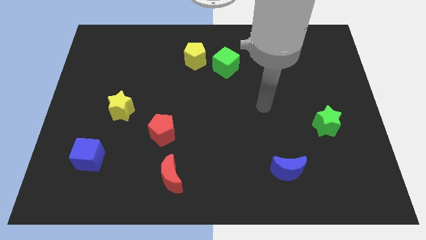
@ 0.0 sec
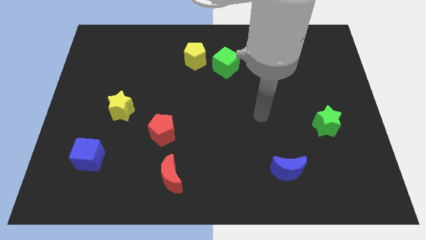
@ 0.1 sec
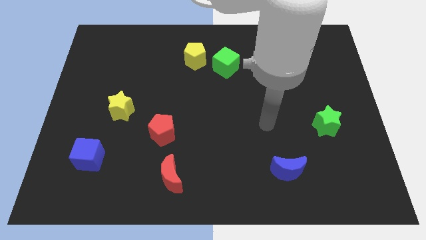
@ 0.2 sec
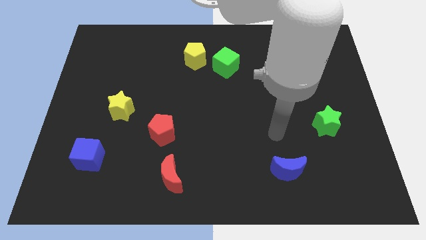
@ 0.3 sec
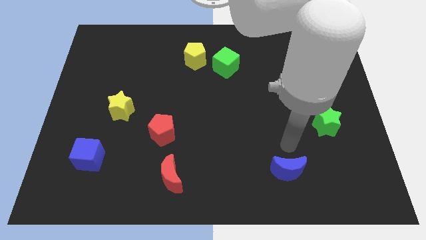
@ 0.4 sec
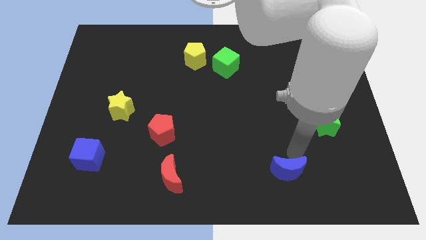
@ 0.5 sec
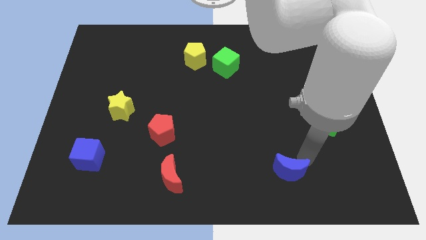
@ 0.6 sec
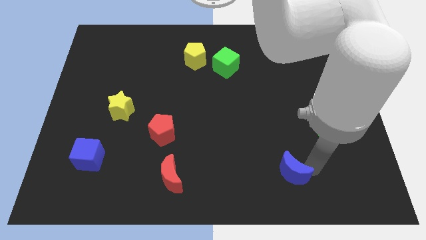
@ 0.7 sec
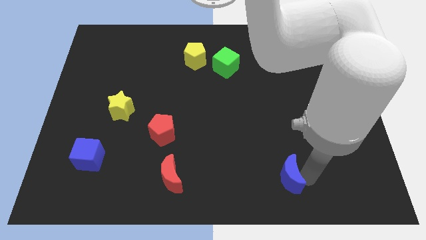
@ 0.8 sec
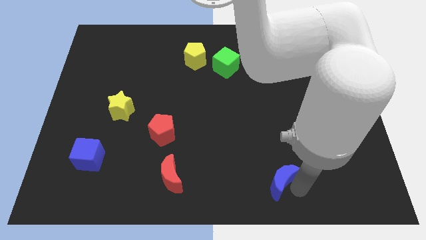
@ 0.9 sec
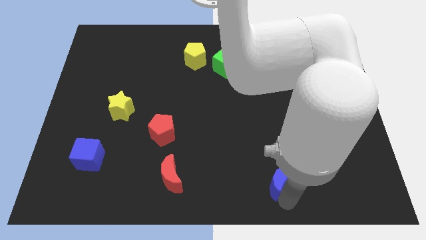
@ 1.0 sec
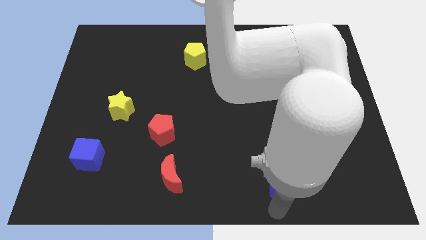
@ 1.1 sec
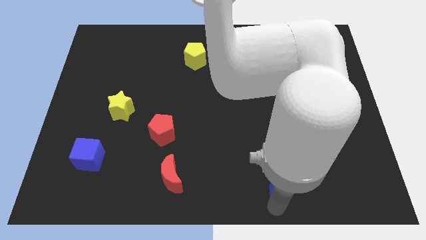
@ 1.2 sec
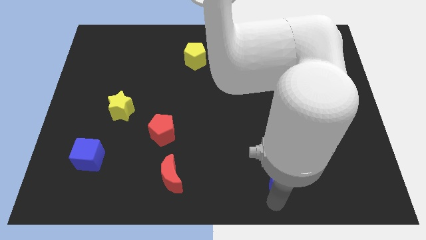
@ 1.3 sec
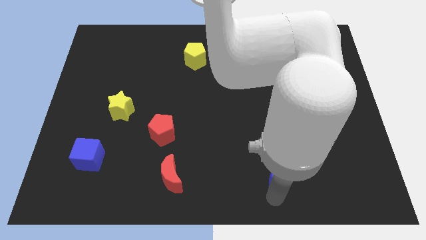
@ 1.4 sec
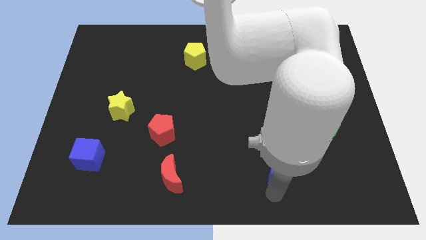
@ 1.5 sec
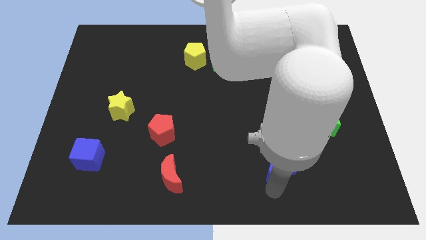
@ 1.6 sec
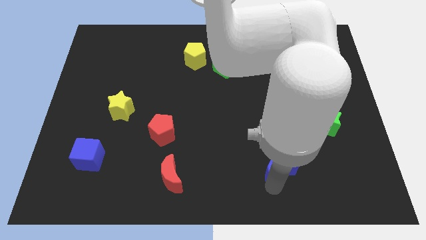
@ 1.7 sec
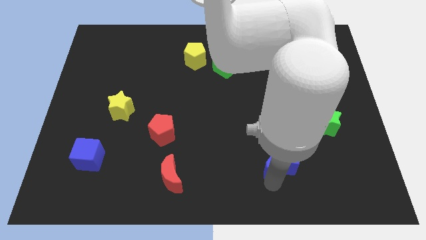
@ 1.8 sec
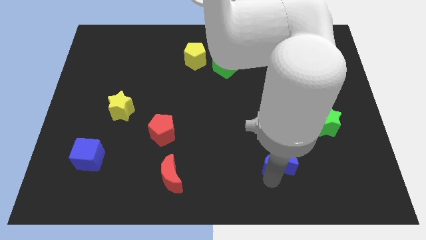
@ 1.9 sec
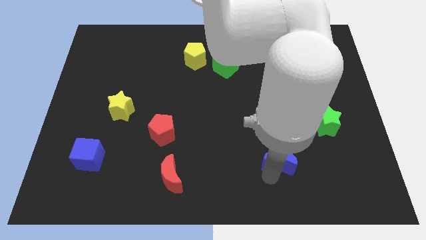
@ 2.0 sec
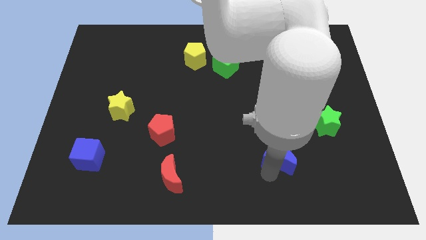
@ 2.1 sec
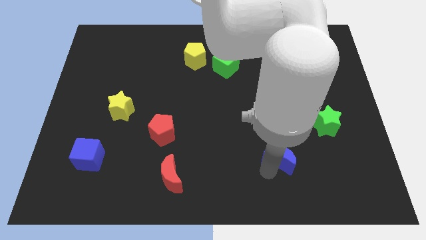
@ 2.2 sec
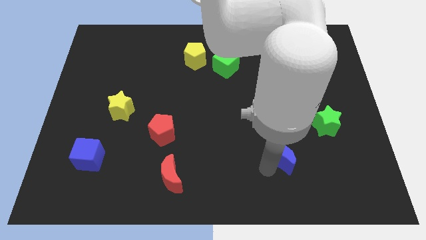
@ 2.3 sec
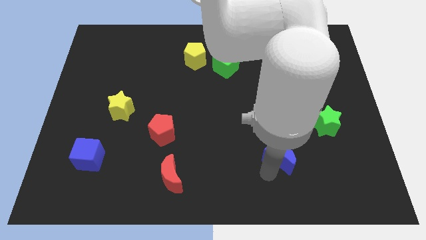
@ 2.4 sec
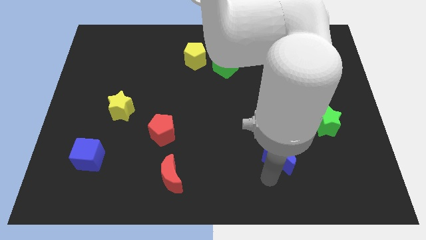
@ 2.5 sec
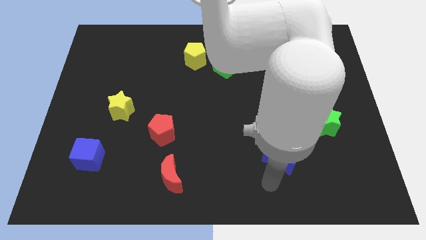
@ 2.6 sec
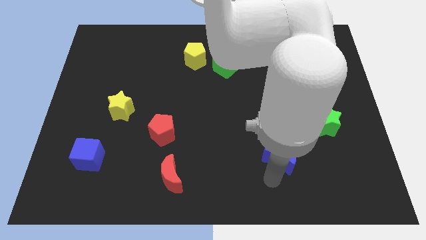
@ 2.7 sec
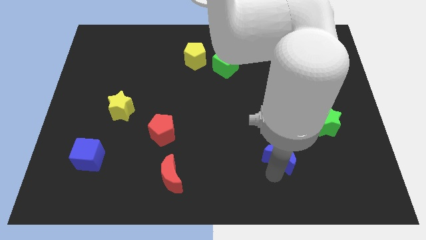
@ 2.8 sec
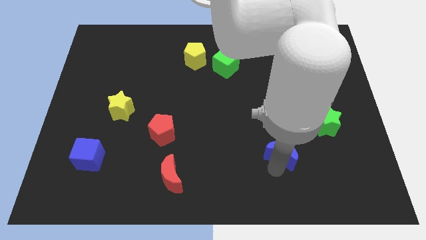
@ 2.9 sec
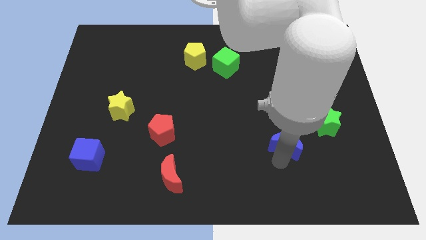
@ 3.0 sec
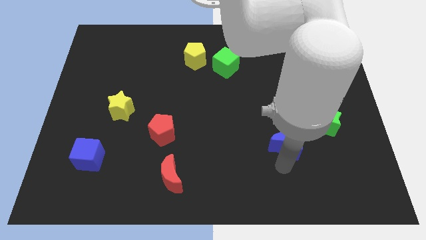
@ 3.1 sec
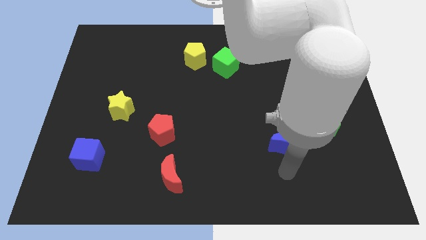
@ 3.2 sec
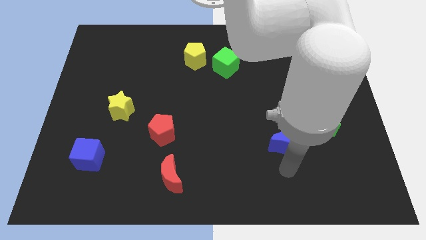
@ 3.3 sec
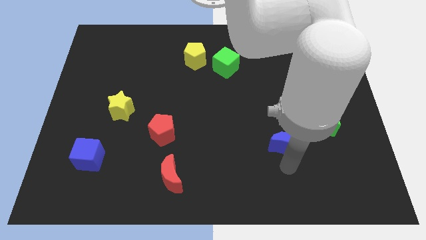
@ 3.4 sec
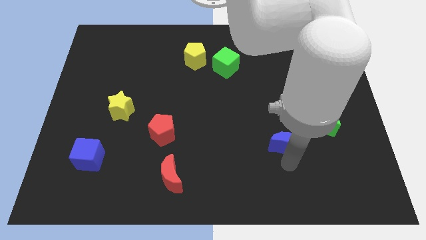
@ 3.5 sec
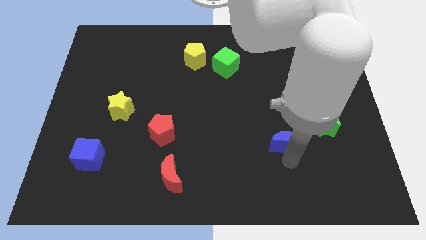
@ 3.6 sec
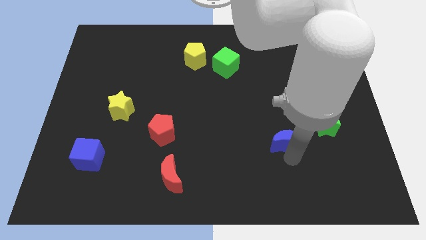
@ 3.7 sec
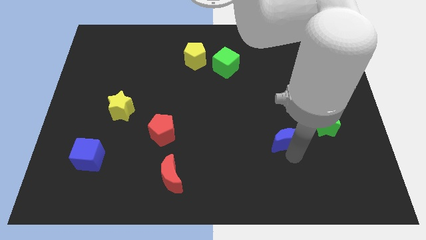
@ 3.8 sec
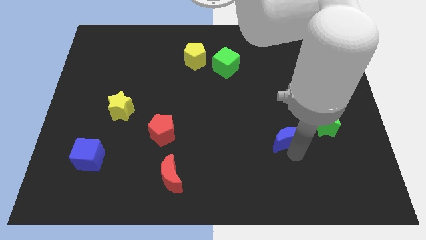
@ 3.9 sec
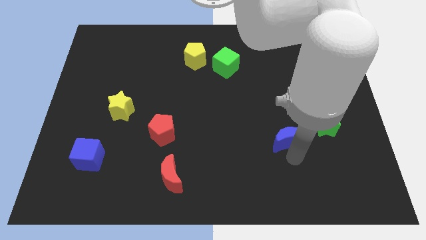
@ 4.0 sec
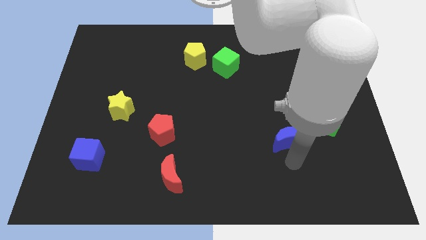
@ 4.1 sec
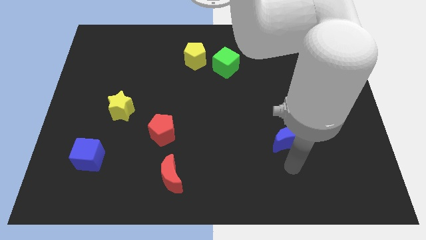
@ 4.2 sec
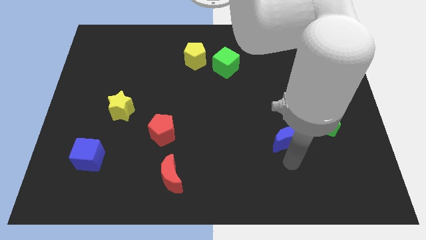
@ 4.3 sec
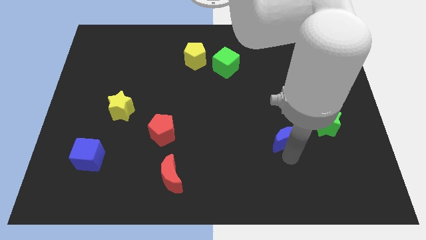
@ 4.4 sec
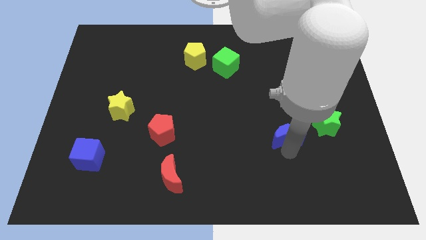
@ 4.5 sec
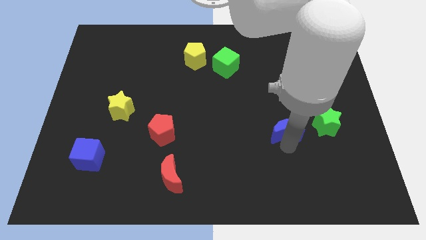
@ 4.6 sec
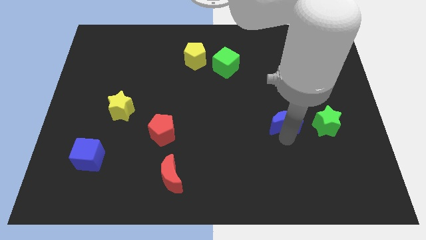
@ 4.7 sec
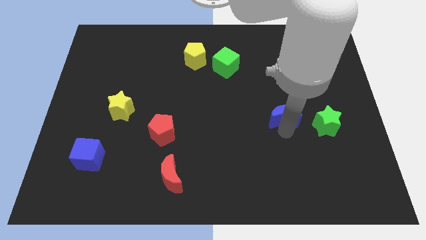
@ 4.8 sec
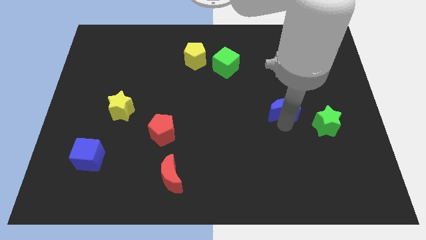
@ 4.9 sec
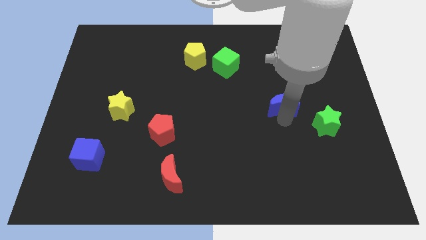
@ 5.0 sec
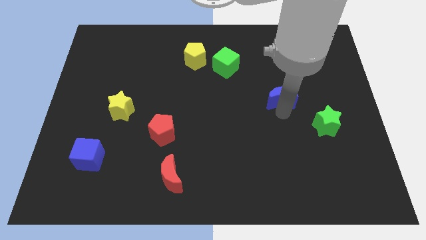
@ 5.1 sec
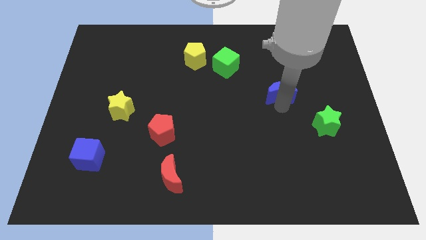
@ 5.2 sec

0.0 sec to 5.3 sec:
push the blue moon up

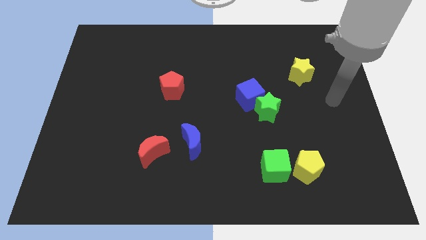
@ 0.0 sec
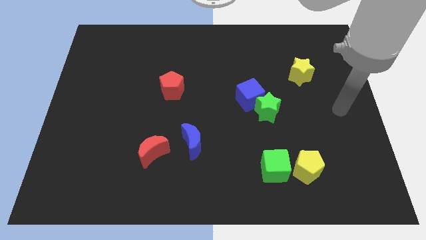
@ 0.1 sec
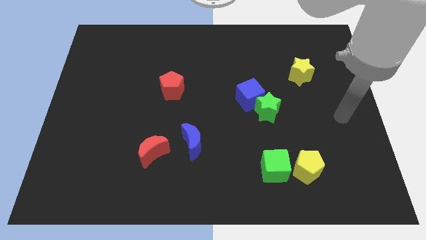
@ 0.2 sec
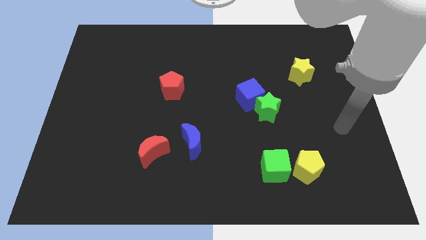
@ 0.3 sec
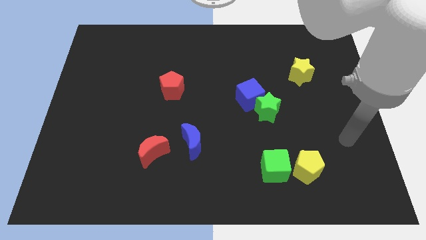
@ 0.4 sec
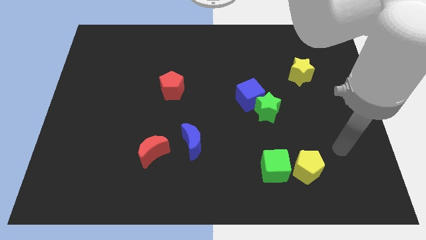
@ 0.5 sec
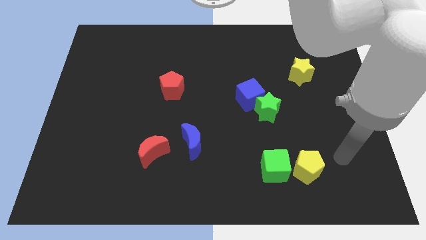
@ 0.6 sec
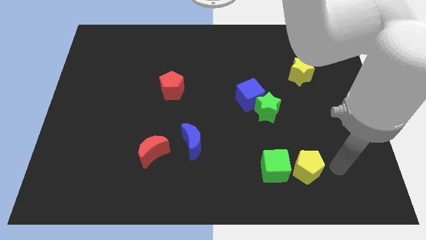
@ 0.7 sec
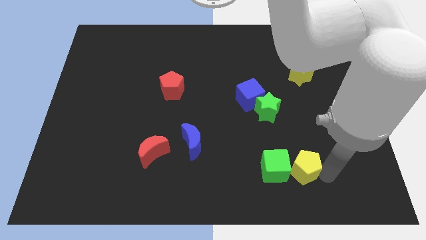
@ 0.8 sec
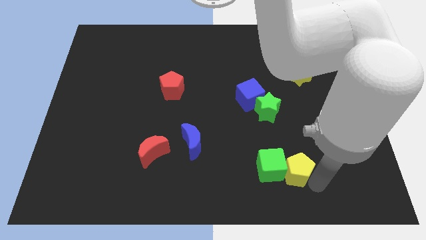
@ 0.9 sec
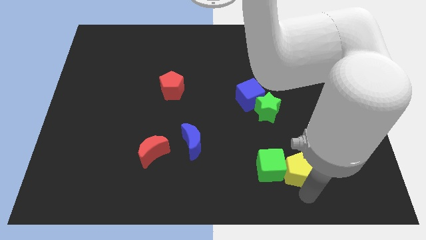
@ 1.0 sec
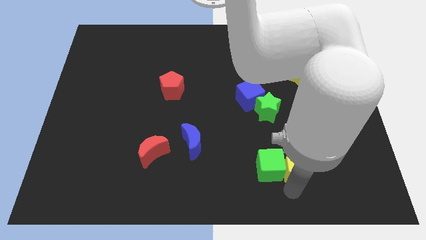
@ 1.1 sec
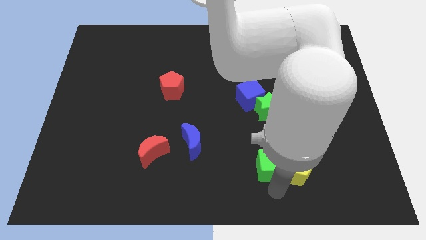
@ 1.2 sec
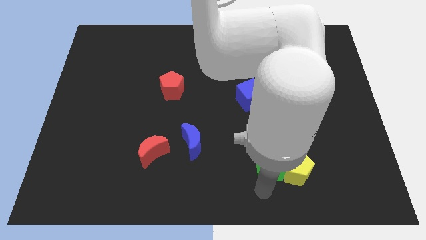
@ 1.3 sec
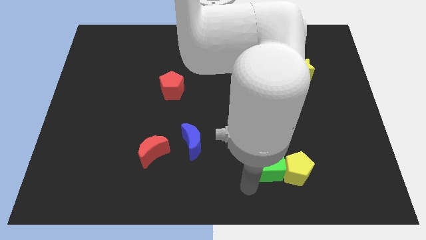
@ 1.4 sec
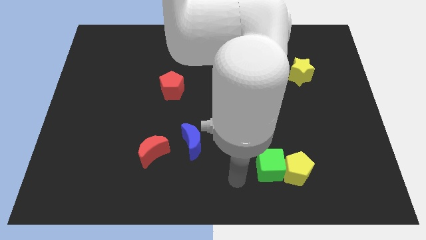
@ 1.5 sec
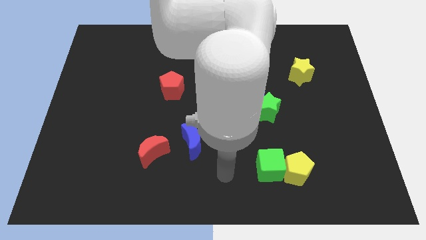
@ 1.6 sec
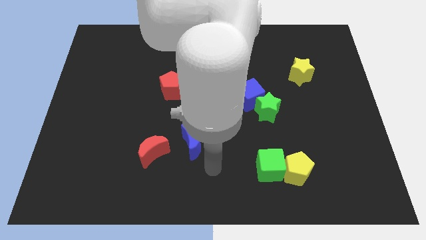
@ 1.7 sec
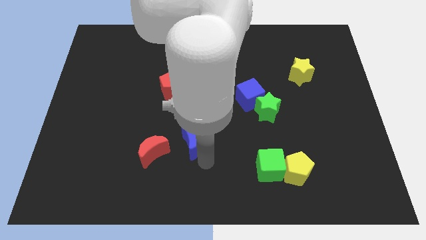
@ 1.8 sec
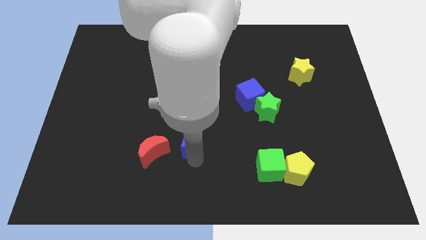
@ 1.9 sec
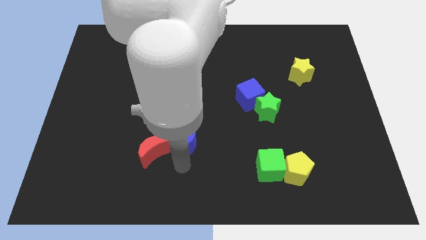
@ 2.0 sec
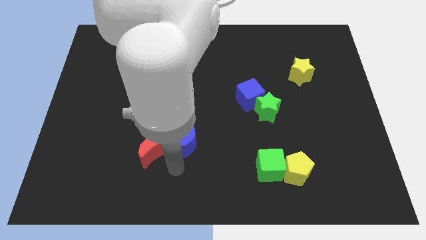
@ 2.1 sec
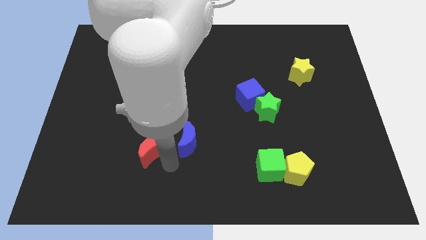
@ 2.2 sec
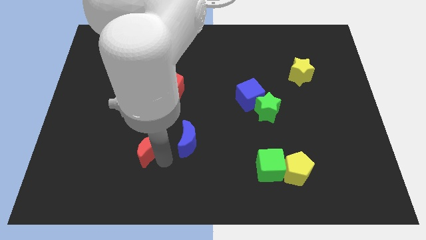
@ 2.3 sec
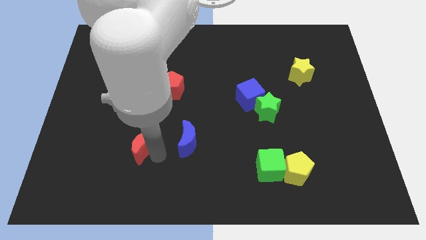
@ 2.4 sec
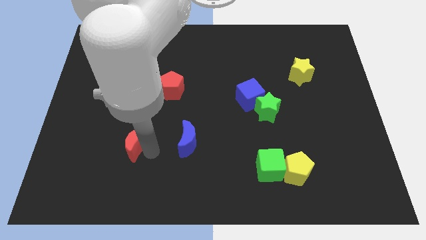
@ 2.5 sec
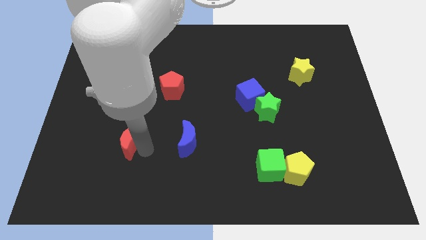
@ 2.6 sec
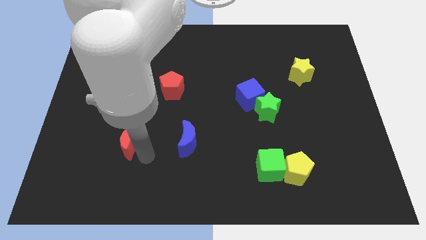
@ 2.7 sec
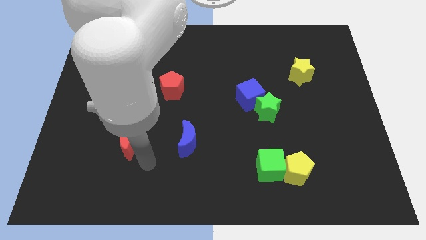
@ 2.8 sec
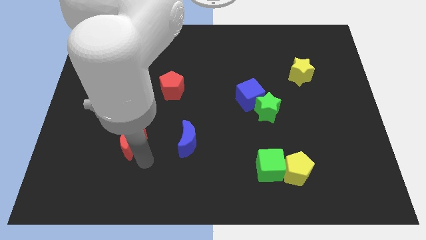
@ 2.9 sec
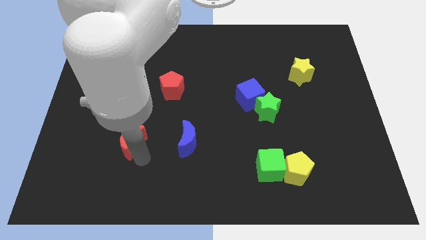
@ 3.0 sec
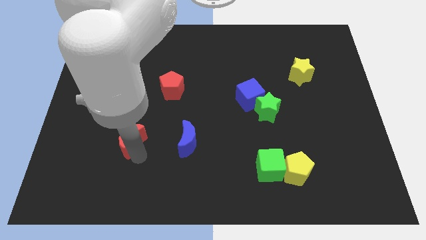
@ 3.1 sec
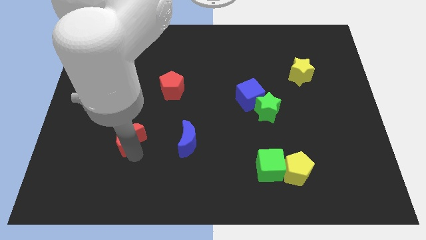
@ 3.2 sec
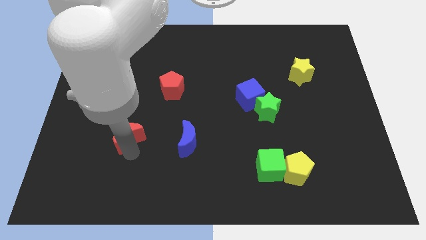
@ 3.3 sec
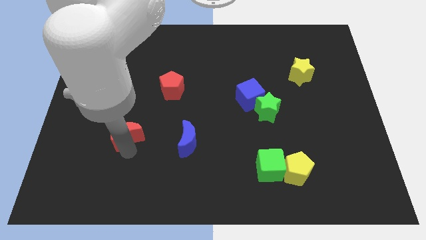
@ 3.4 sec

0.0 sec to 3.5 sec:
push the red moon up and then left a bit
